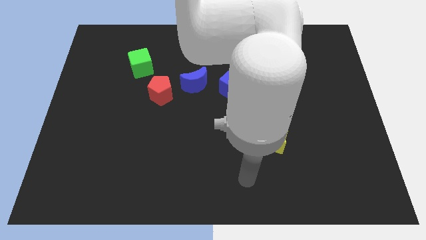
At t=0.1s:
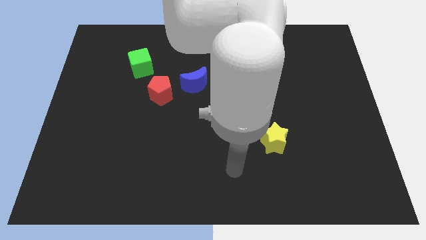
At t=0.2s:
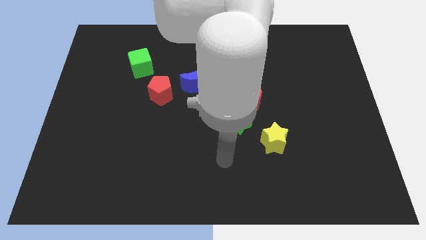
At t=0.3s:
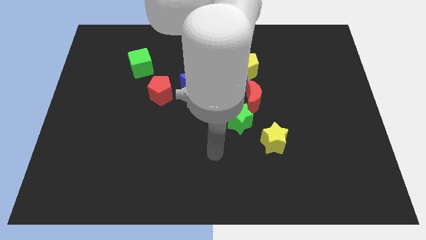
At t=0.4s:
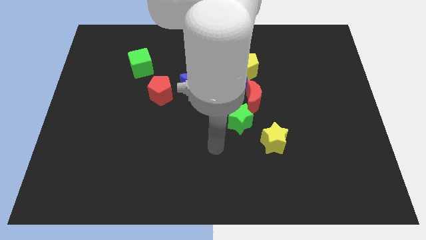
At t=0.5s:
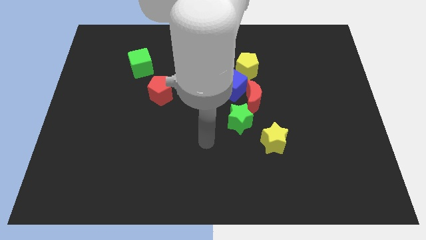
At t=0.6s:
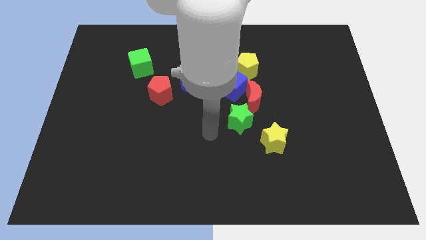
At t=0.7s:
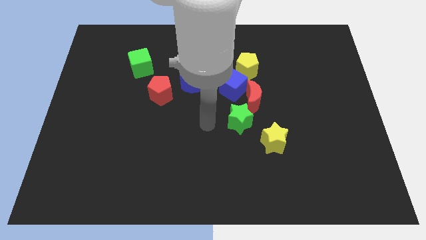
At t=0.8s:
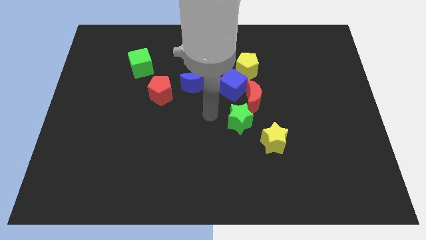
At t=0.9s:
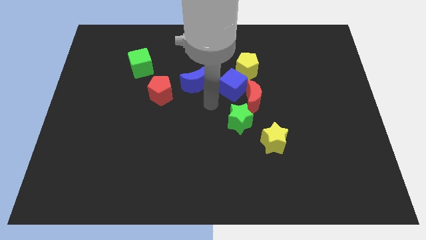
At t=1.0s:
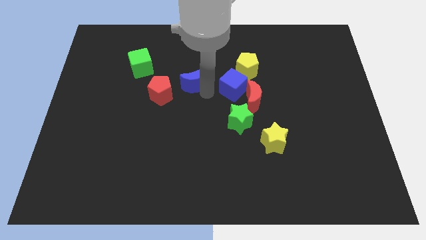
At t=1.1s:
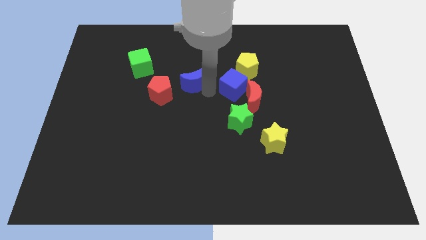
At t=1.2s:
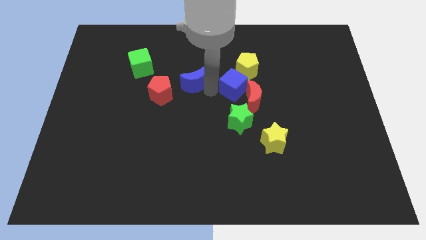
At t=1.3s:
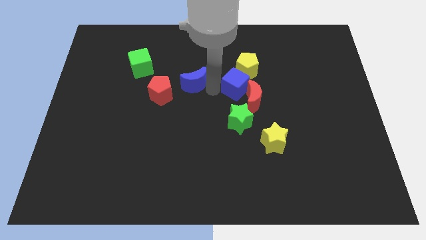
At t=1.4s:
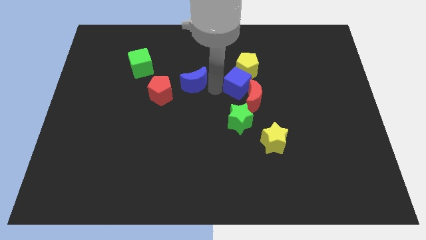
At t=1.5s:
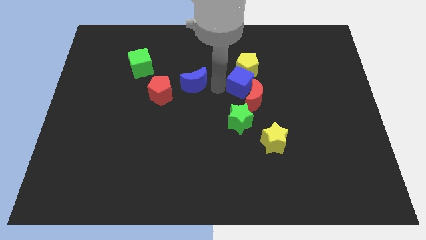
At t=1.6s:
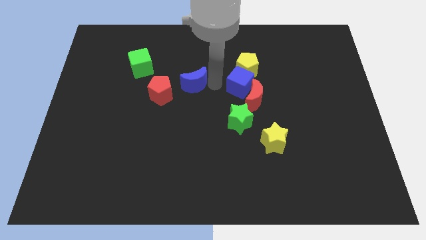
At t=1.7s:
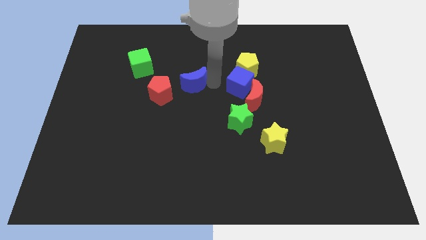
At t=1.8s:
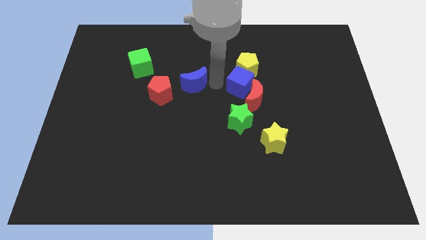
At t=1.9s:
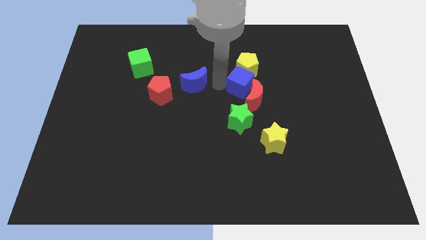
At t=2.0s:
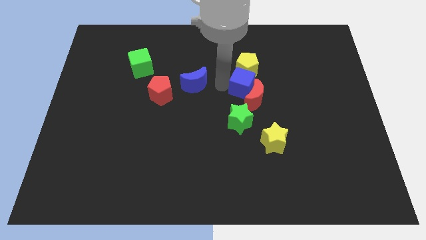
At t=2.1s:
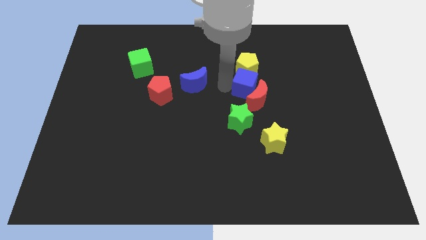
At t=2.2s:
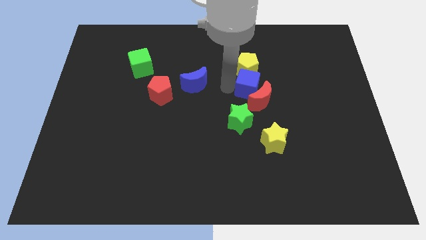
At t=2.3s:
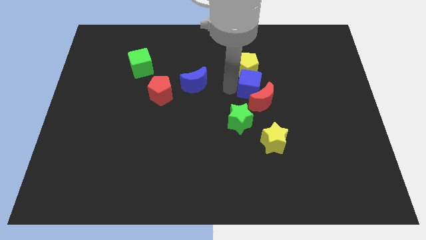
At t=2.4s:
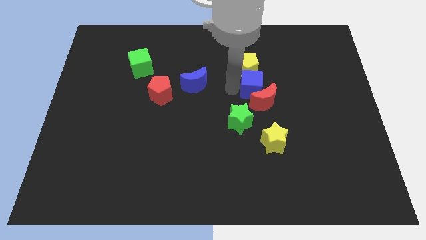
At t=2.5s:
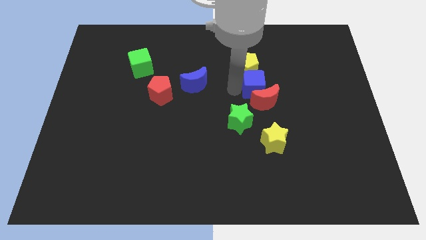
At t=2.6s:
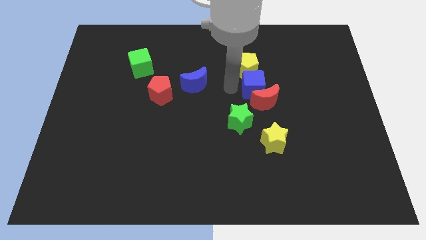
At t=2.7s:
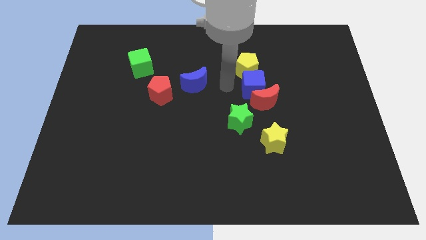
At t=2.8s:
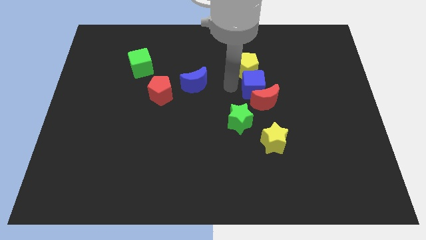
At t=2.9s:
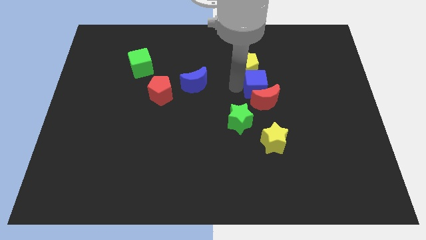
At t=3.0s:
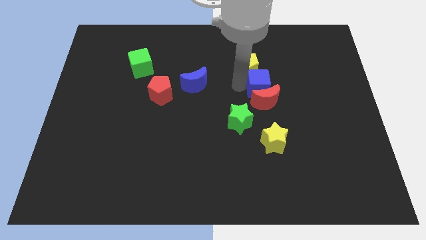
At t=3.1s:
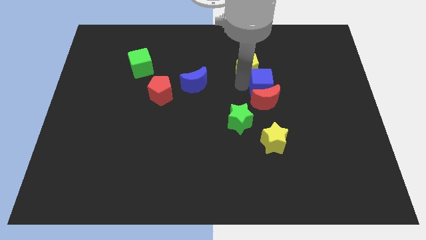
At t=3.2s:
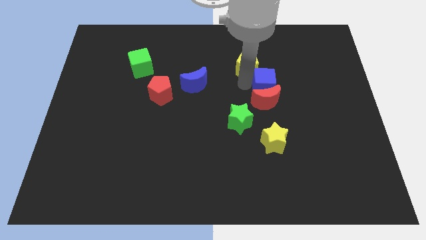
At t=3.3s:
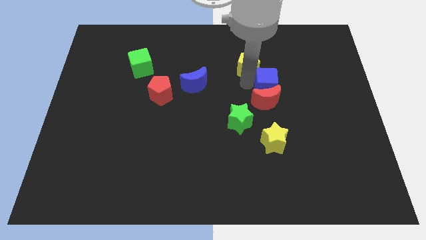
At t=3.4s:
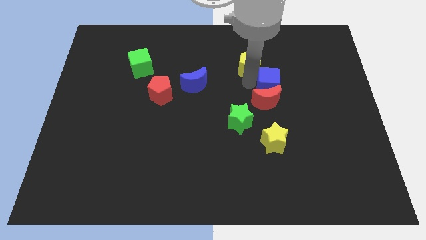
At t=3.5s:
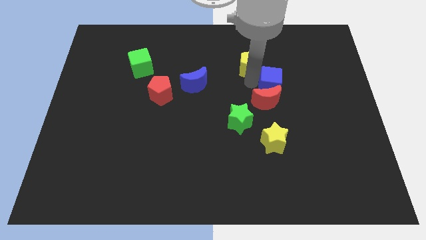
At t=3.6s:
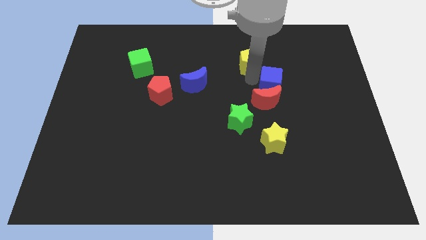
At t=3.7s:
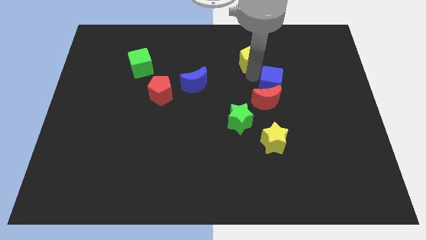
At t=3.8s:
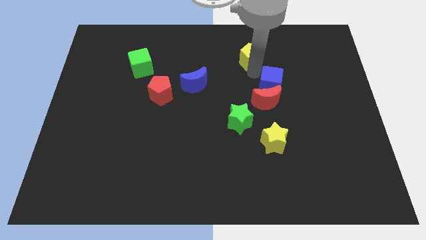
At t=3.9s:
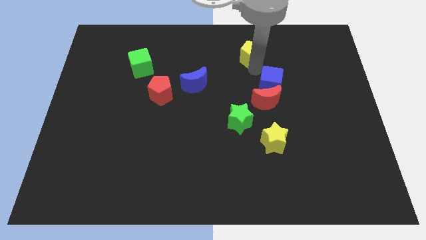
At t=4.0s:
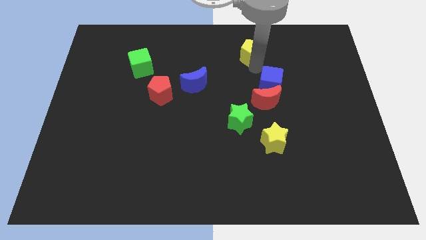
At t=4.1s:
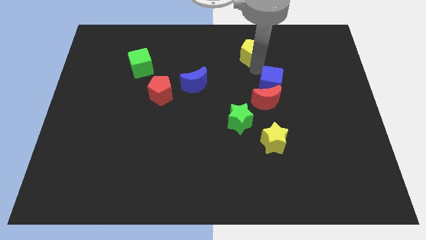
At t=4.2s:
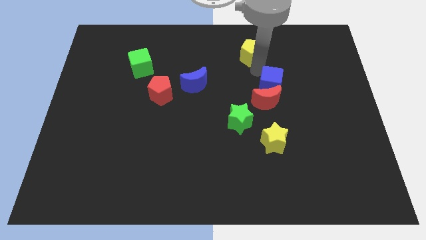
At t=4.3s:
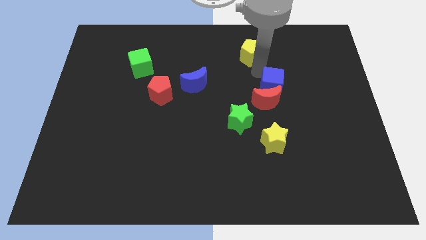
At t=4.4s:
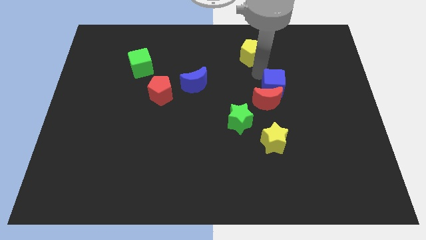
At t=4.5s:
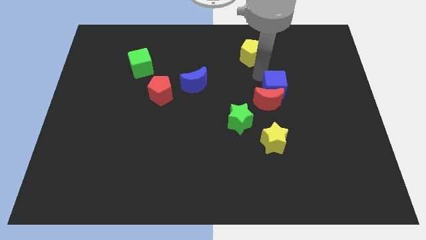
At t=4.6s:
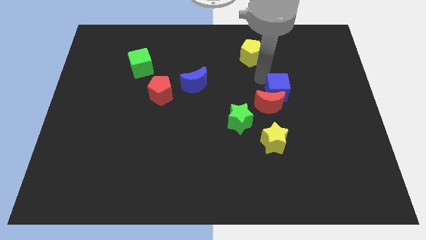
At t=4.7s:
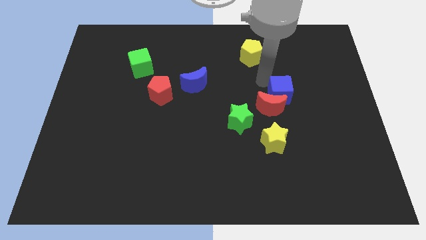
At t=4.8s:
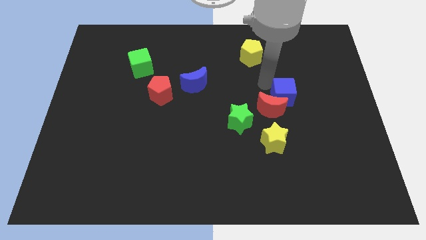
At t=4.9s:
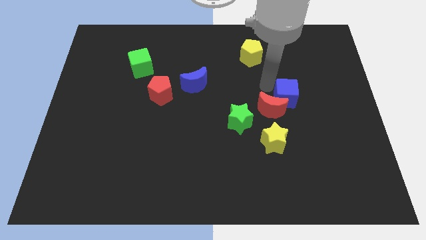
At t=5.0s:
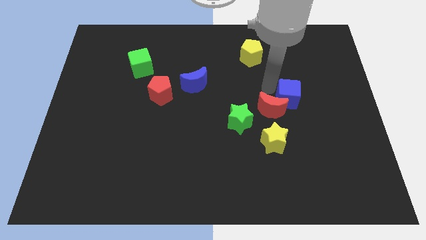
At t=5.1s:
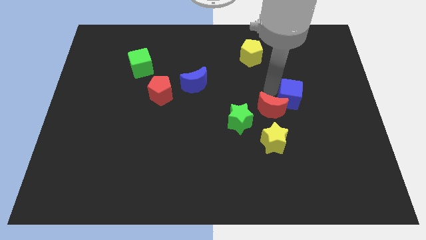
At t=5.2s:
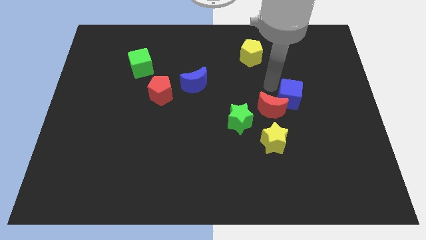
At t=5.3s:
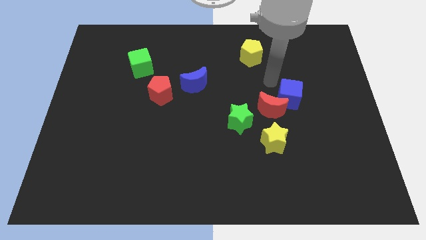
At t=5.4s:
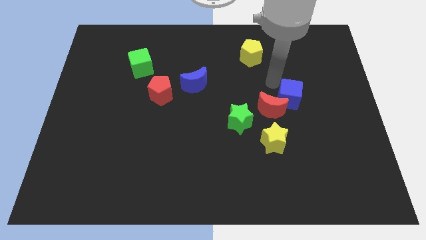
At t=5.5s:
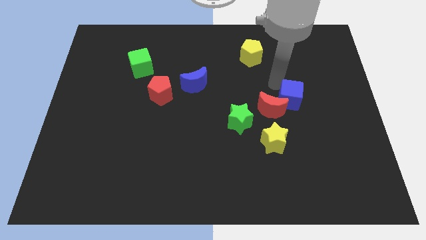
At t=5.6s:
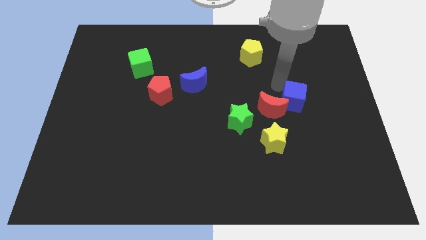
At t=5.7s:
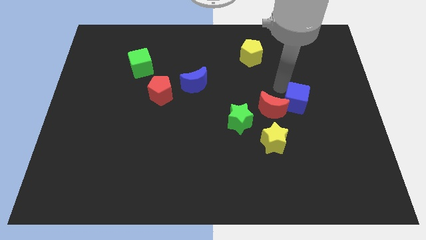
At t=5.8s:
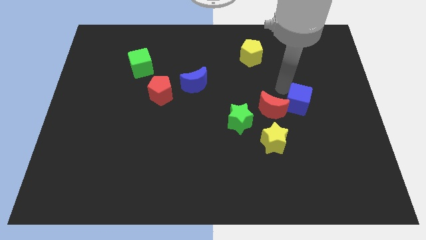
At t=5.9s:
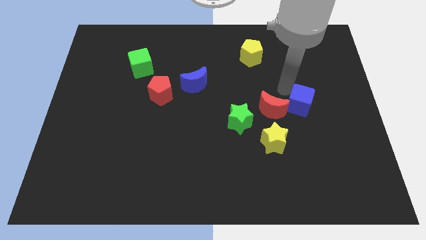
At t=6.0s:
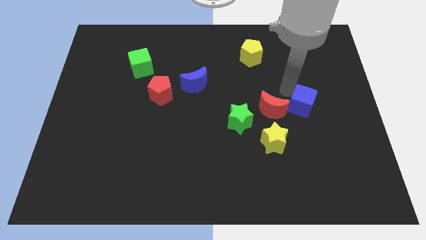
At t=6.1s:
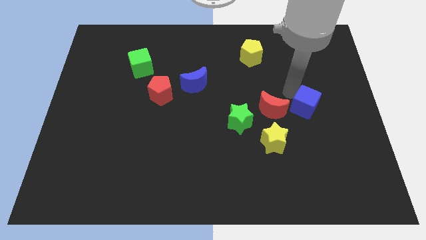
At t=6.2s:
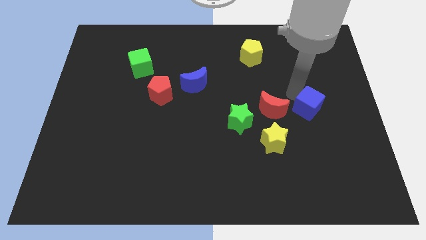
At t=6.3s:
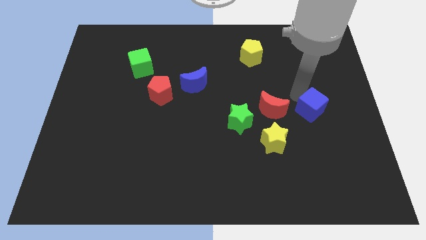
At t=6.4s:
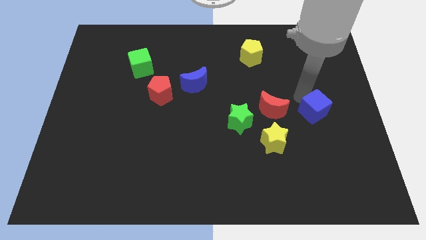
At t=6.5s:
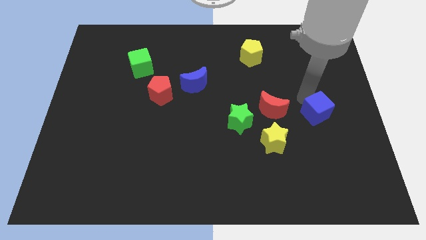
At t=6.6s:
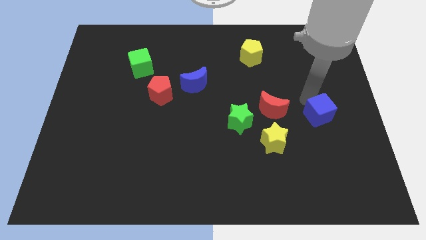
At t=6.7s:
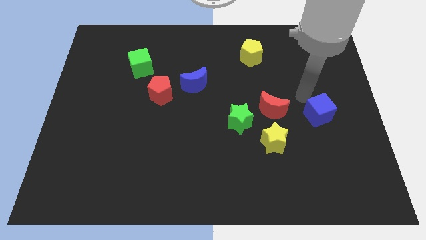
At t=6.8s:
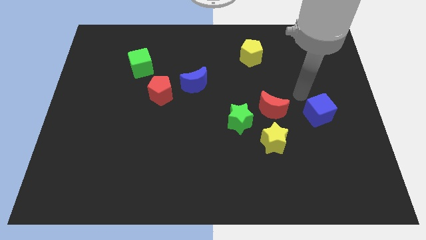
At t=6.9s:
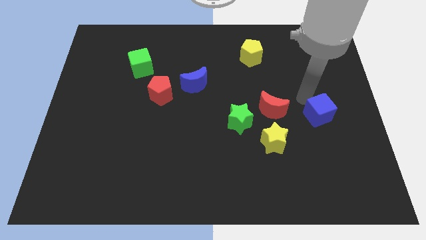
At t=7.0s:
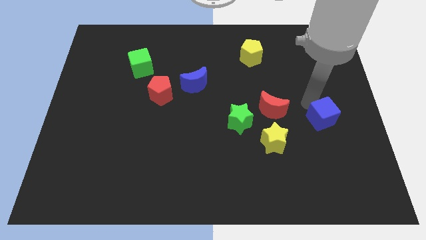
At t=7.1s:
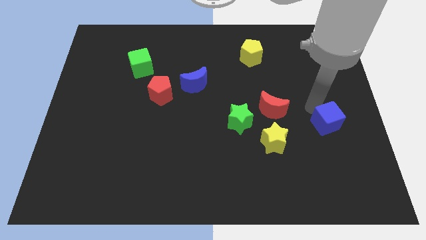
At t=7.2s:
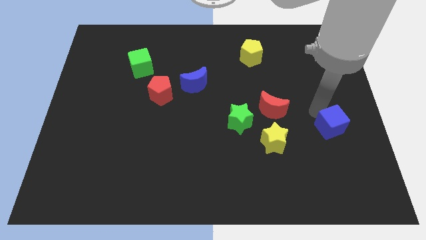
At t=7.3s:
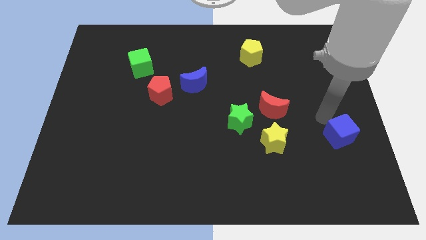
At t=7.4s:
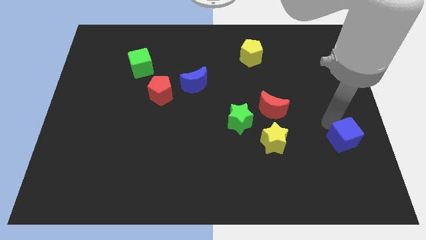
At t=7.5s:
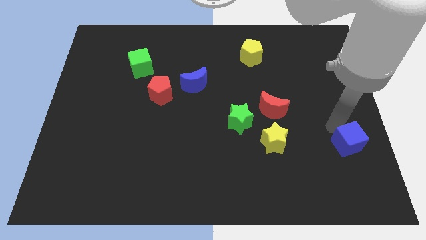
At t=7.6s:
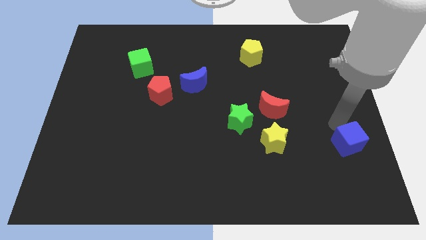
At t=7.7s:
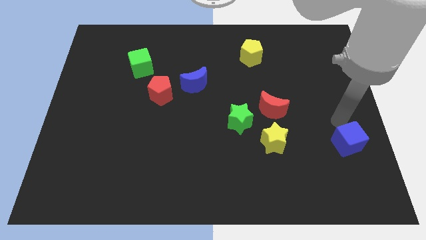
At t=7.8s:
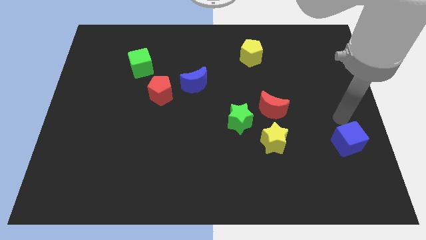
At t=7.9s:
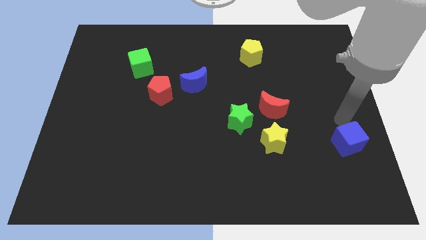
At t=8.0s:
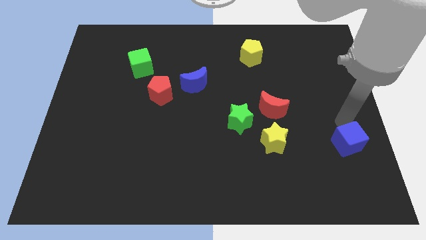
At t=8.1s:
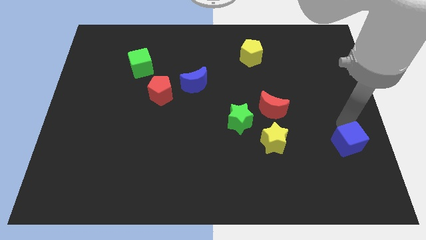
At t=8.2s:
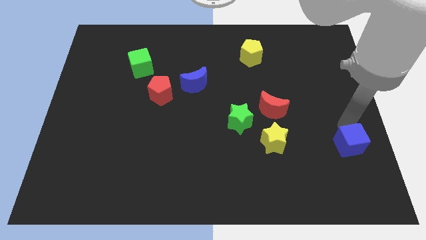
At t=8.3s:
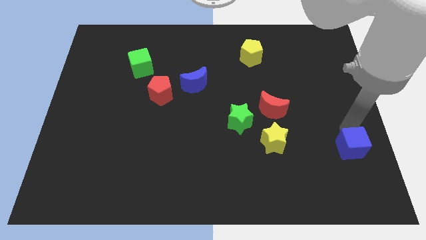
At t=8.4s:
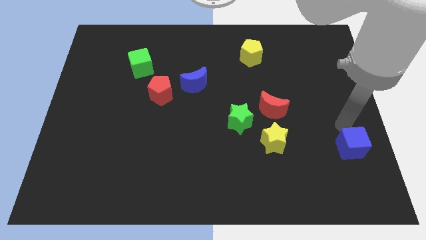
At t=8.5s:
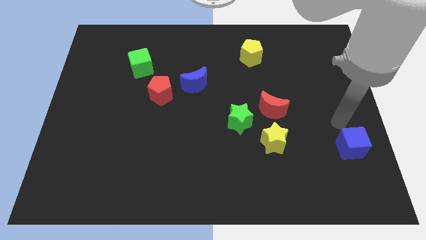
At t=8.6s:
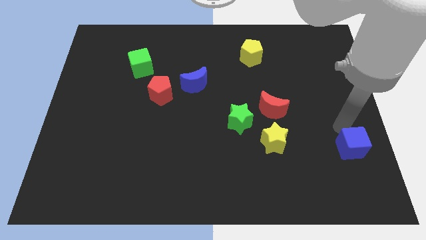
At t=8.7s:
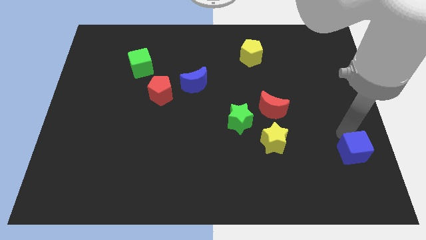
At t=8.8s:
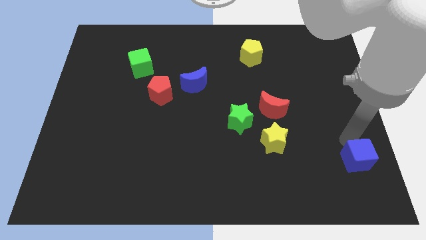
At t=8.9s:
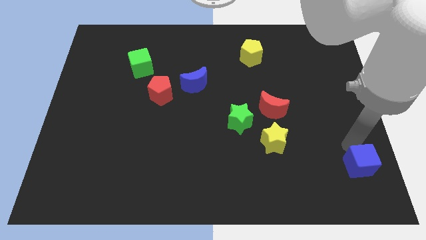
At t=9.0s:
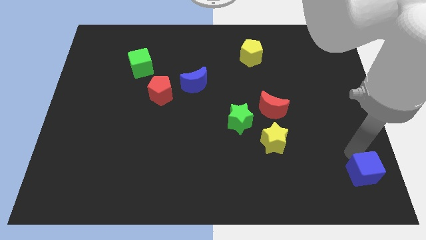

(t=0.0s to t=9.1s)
put the blue cube to the bottom right
